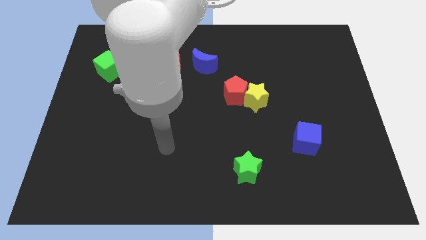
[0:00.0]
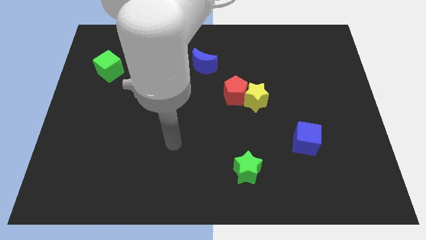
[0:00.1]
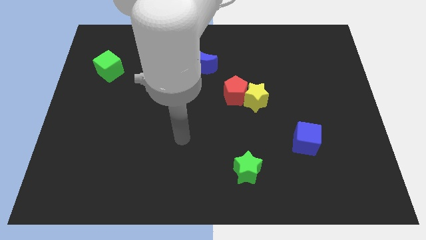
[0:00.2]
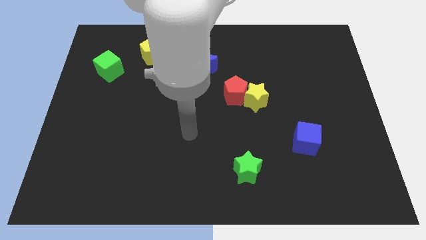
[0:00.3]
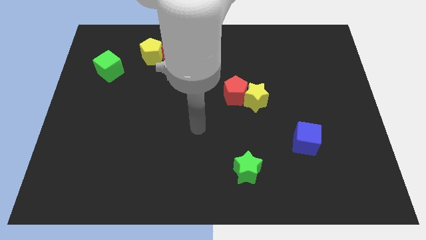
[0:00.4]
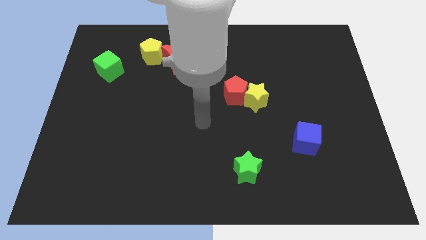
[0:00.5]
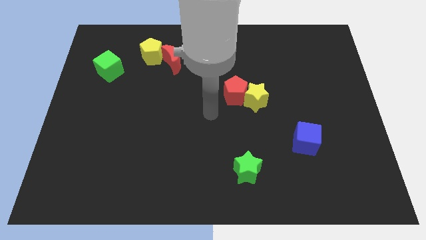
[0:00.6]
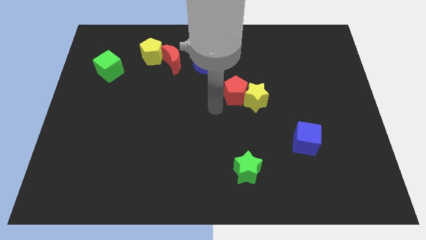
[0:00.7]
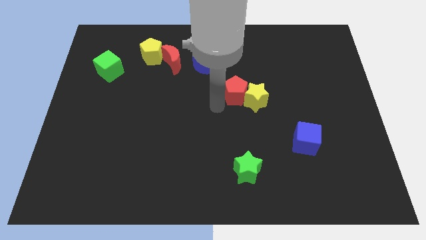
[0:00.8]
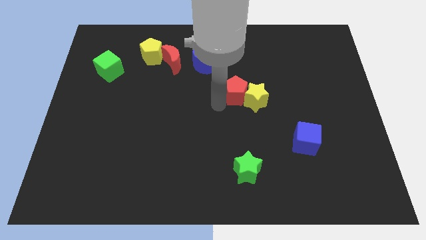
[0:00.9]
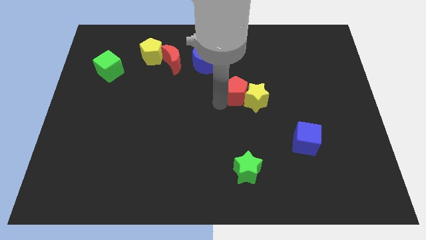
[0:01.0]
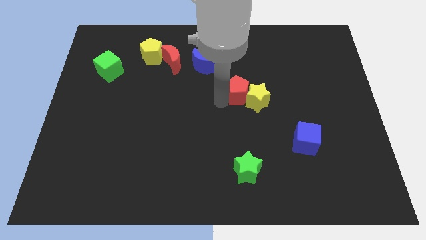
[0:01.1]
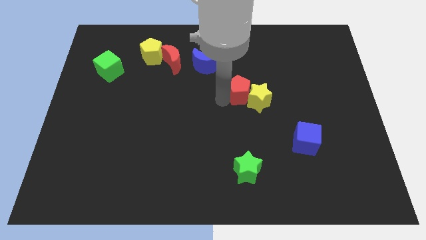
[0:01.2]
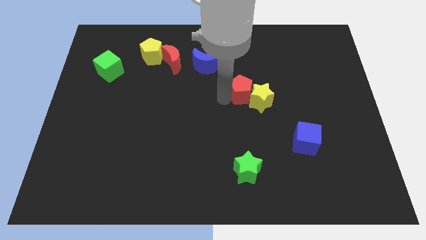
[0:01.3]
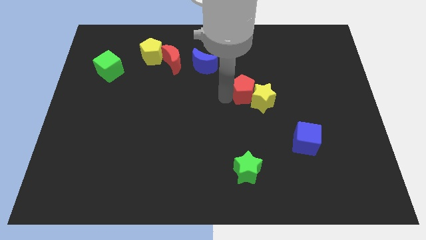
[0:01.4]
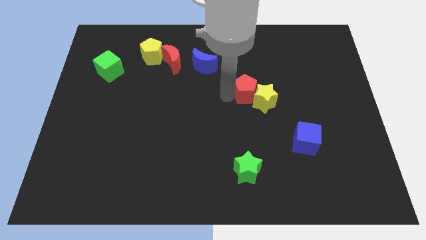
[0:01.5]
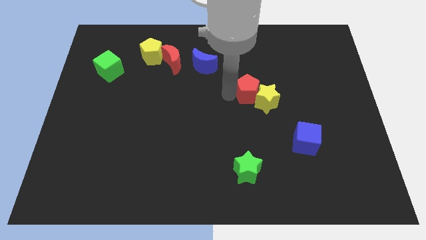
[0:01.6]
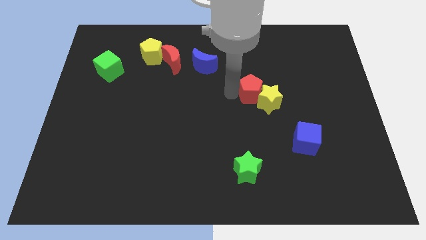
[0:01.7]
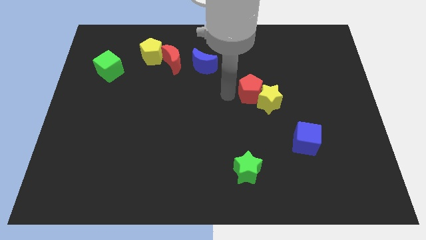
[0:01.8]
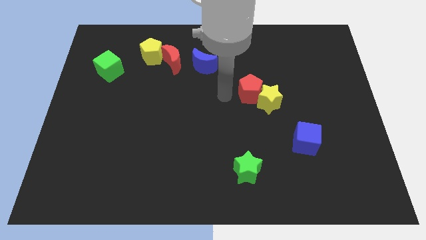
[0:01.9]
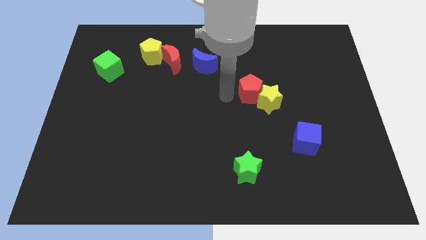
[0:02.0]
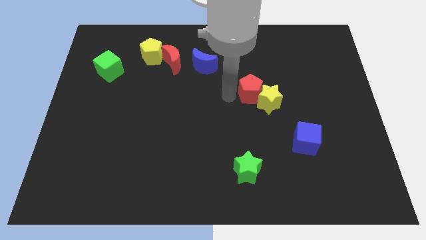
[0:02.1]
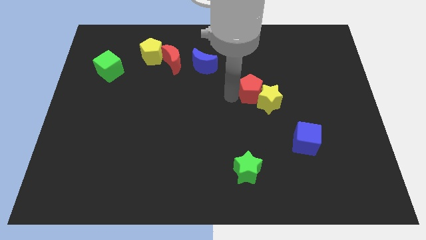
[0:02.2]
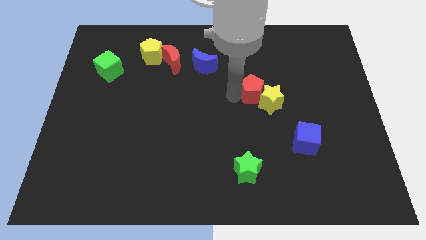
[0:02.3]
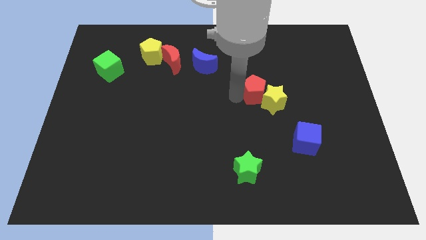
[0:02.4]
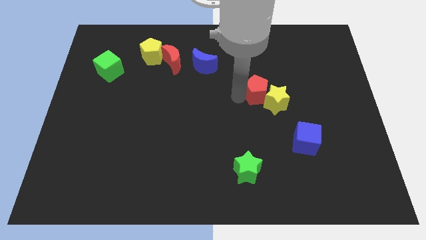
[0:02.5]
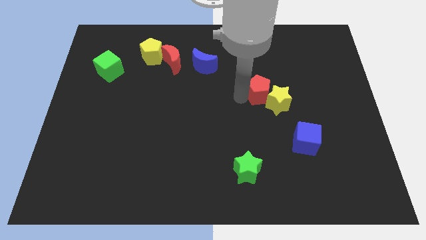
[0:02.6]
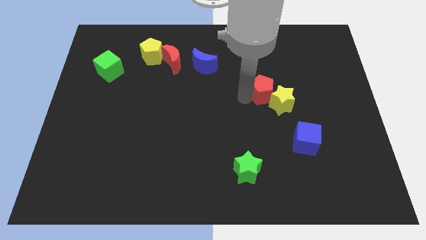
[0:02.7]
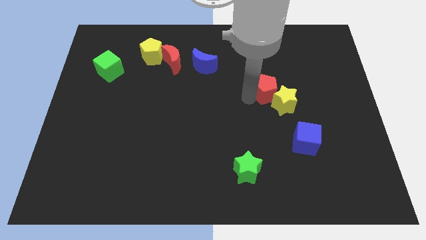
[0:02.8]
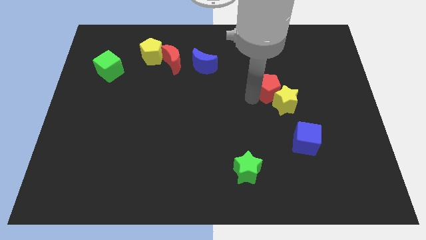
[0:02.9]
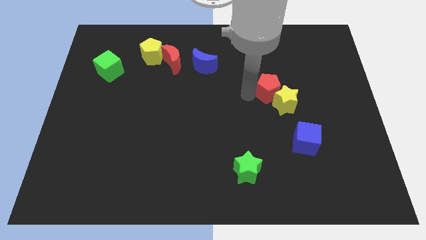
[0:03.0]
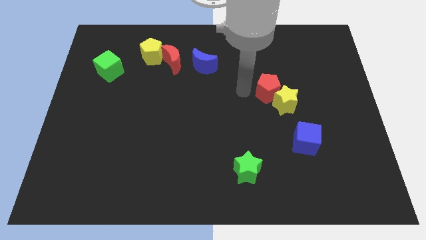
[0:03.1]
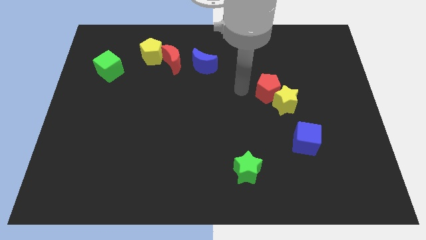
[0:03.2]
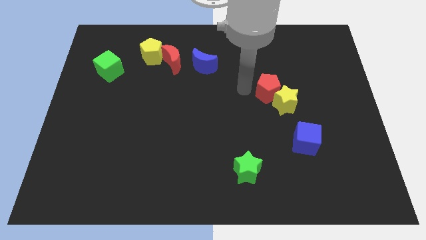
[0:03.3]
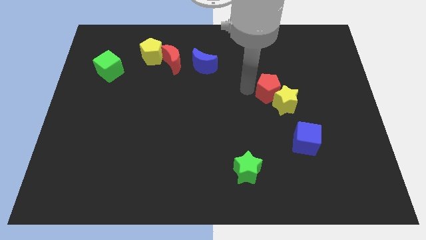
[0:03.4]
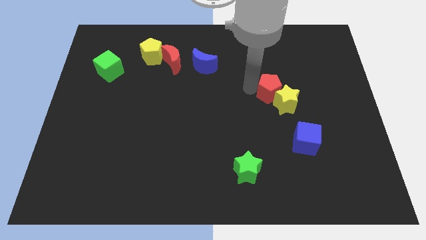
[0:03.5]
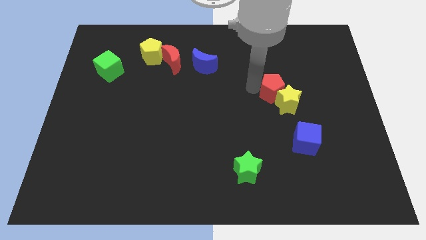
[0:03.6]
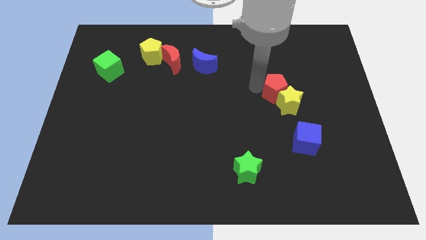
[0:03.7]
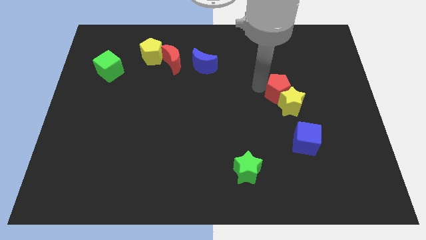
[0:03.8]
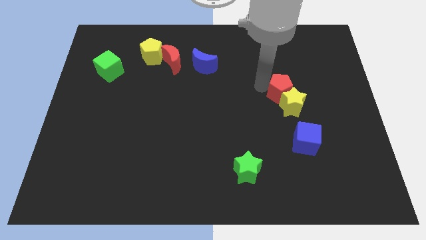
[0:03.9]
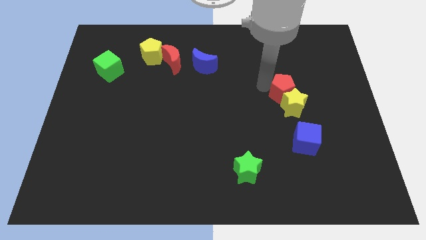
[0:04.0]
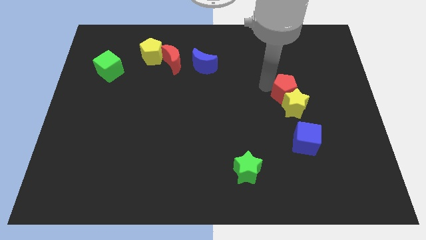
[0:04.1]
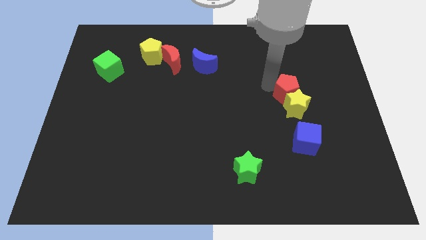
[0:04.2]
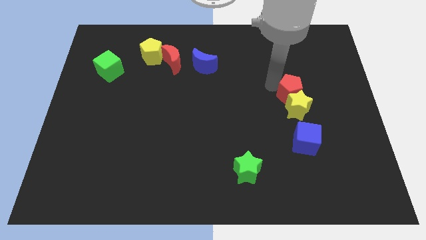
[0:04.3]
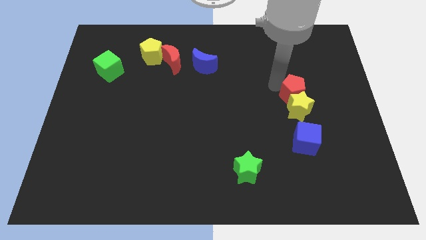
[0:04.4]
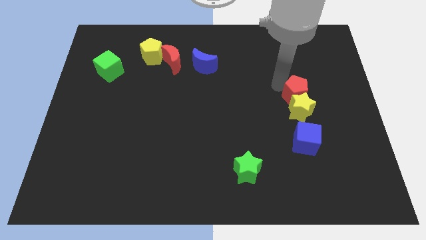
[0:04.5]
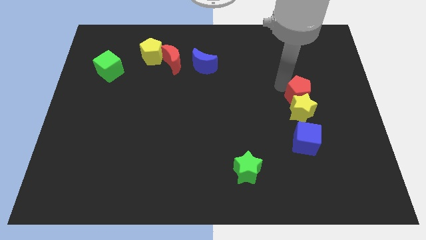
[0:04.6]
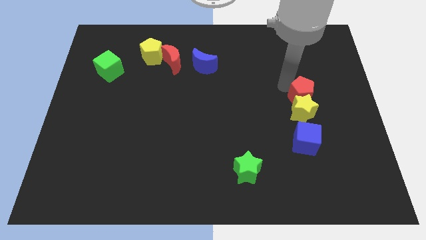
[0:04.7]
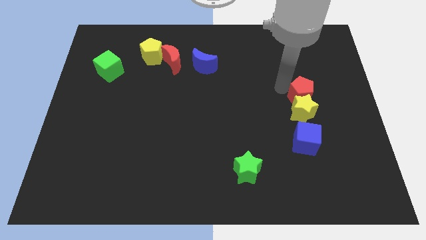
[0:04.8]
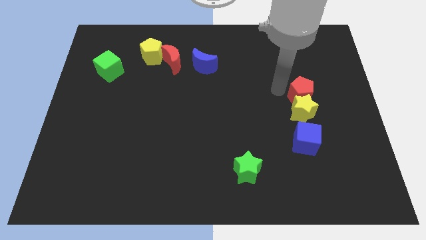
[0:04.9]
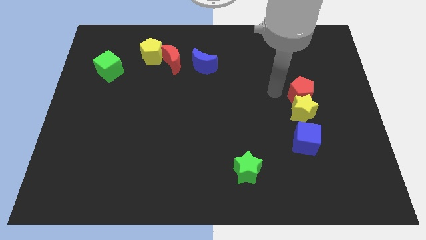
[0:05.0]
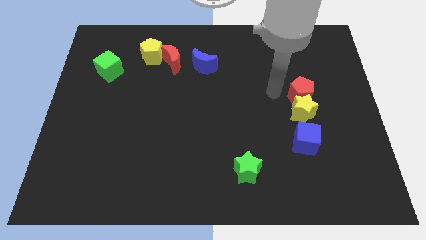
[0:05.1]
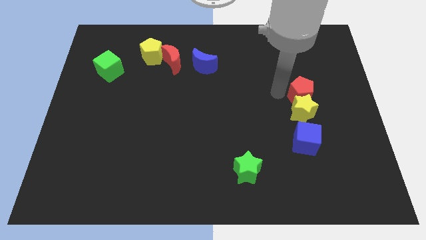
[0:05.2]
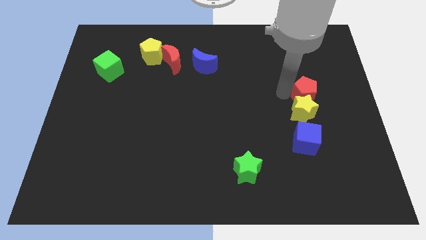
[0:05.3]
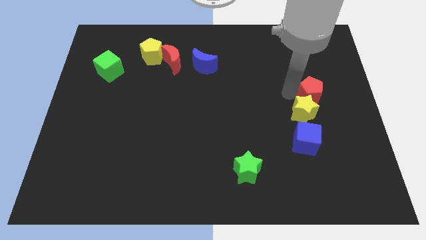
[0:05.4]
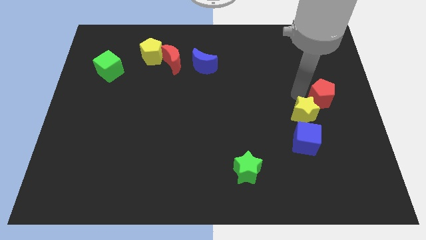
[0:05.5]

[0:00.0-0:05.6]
slide the red pentagon to the right side

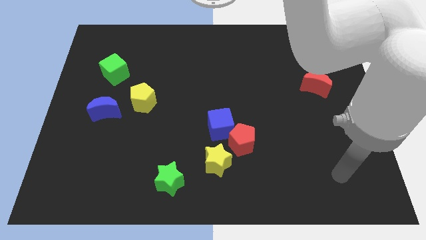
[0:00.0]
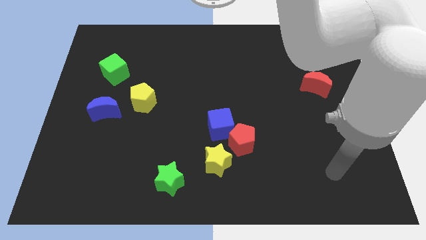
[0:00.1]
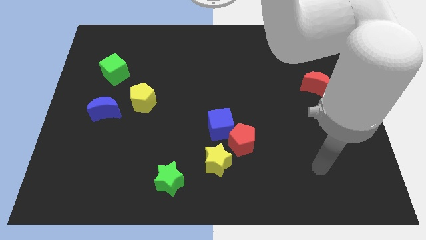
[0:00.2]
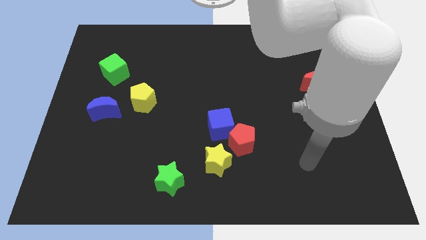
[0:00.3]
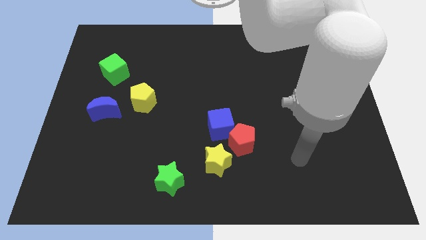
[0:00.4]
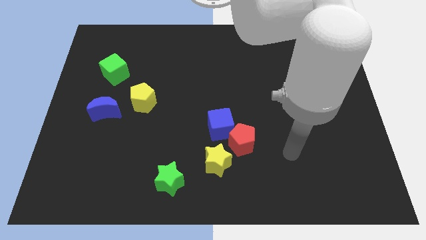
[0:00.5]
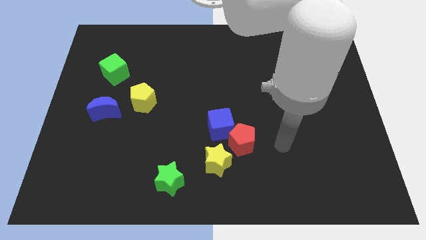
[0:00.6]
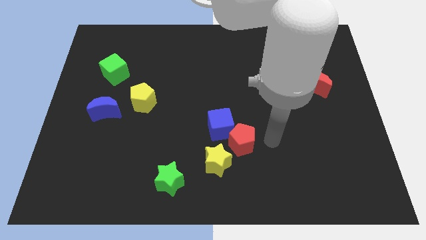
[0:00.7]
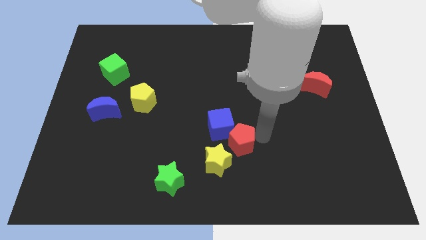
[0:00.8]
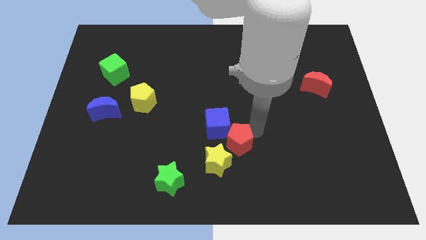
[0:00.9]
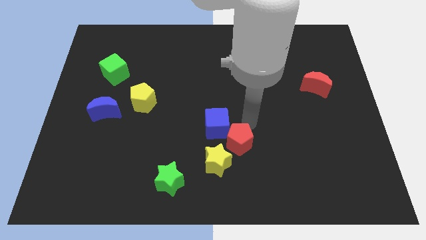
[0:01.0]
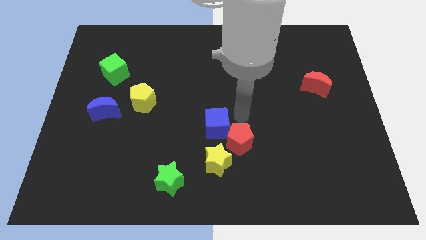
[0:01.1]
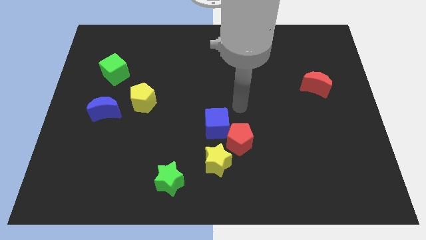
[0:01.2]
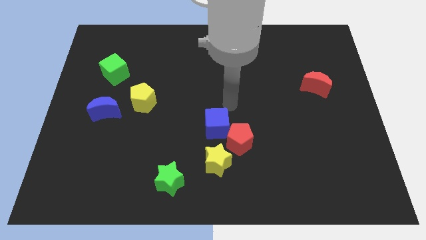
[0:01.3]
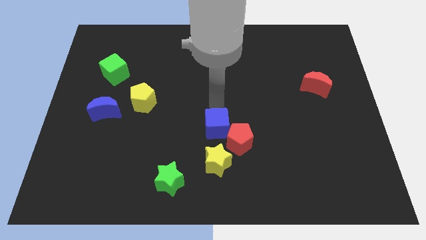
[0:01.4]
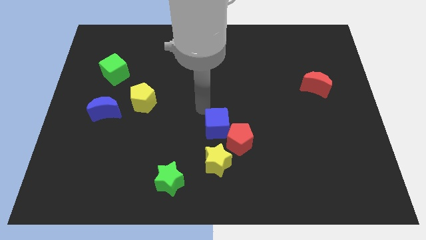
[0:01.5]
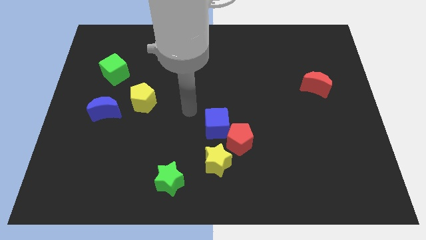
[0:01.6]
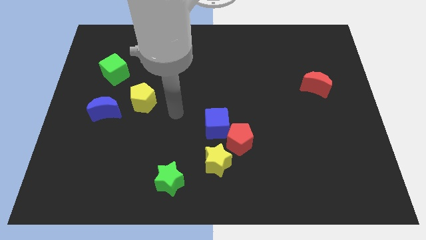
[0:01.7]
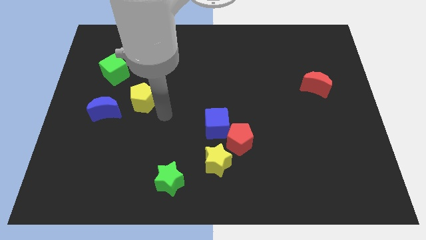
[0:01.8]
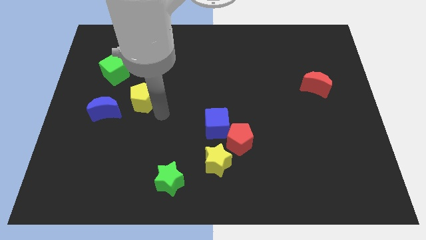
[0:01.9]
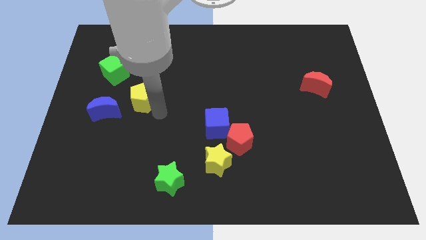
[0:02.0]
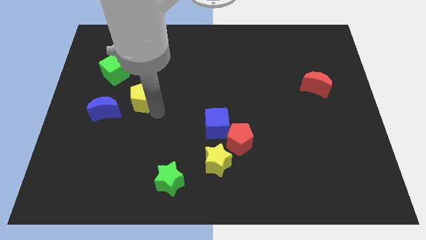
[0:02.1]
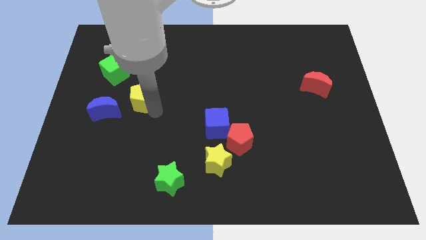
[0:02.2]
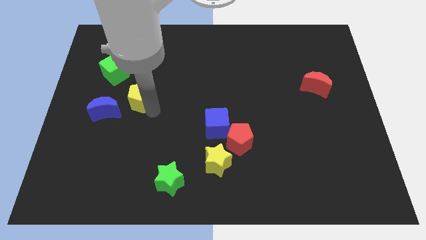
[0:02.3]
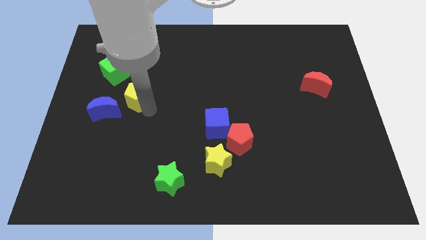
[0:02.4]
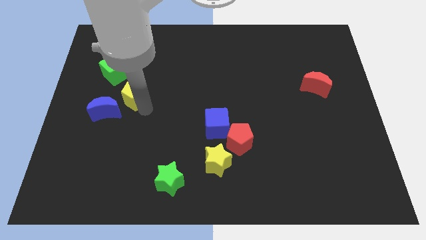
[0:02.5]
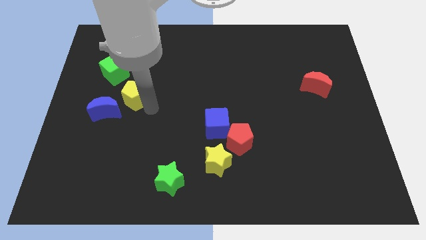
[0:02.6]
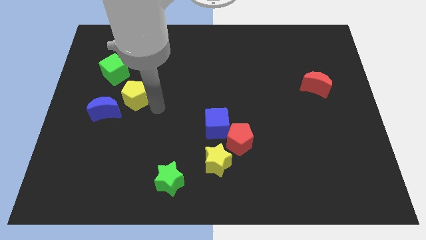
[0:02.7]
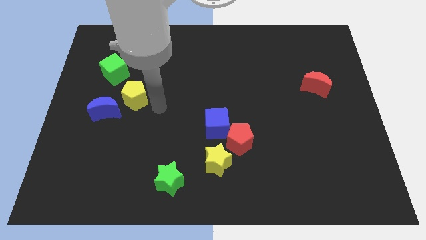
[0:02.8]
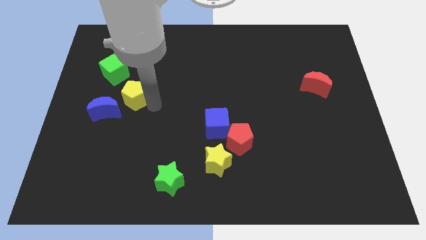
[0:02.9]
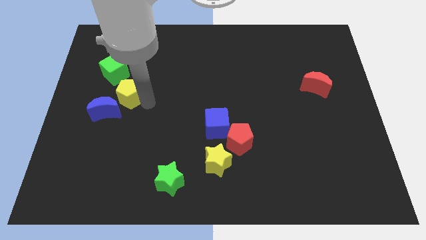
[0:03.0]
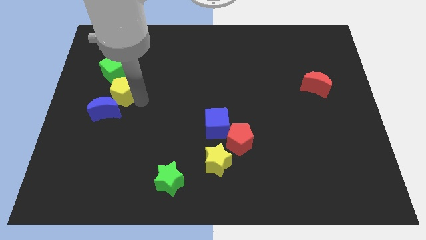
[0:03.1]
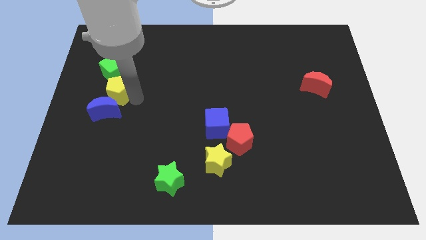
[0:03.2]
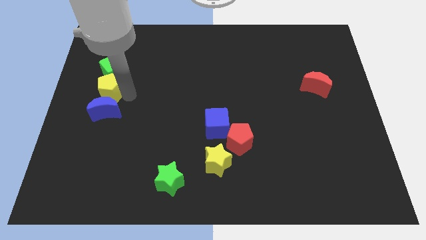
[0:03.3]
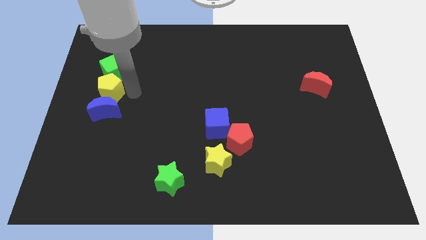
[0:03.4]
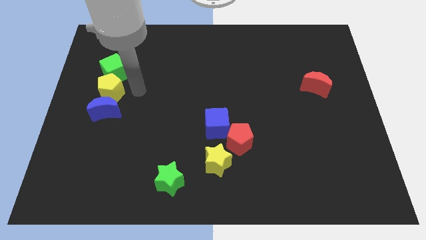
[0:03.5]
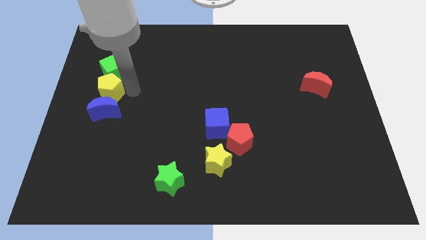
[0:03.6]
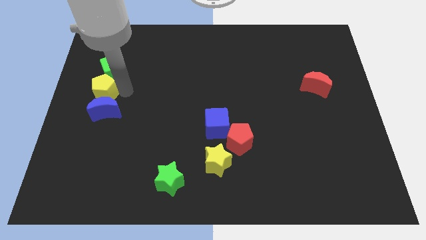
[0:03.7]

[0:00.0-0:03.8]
move the yellow pentagon to the left side of the board
